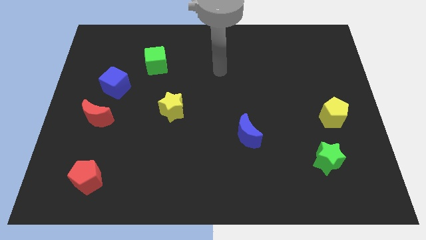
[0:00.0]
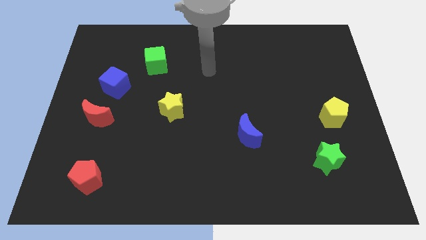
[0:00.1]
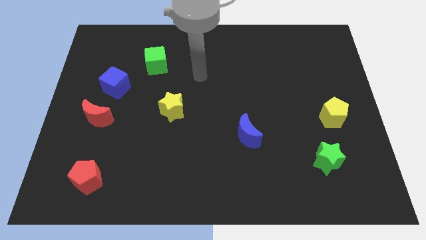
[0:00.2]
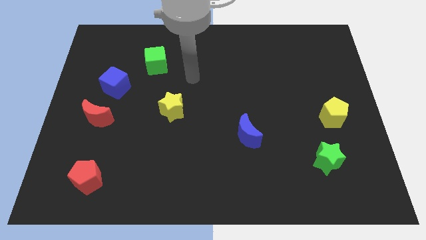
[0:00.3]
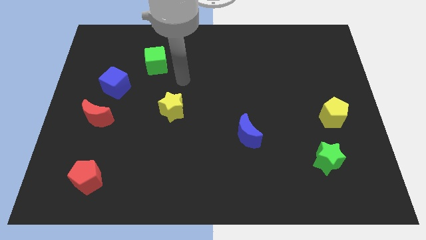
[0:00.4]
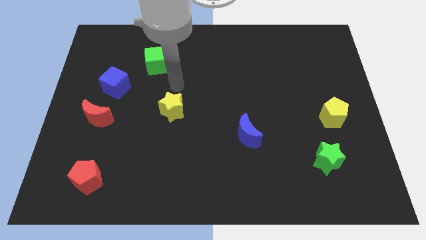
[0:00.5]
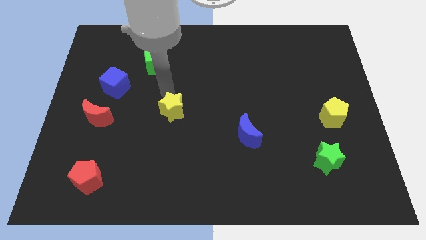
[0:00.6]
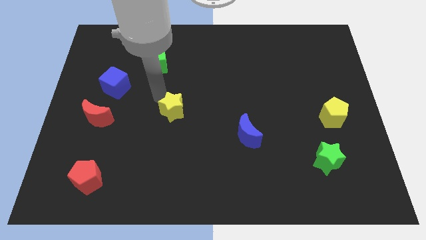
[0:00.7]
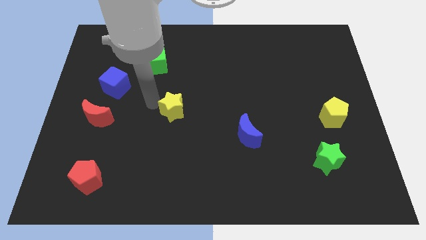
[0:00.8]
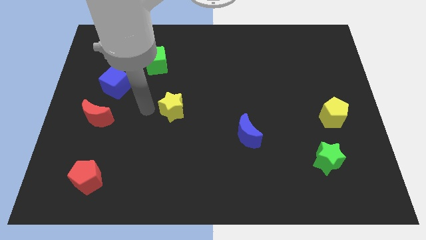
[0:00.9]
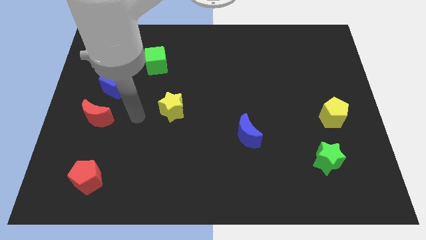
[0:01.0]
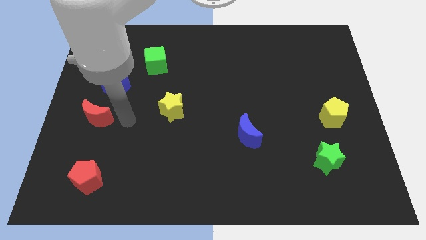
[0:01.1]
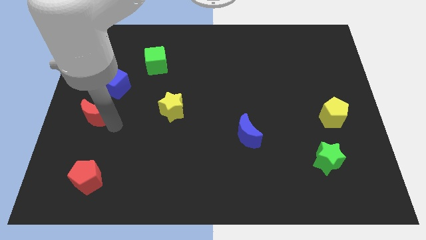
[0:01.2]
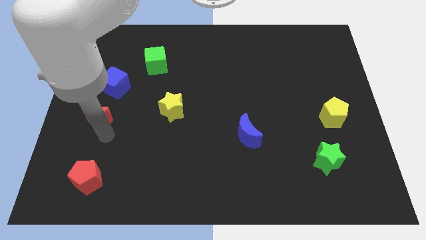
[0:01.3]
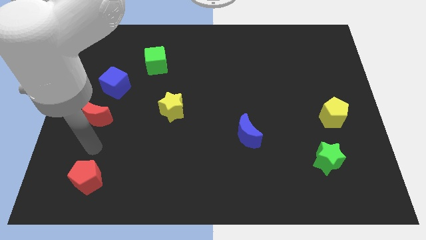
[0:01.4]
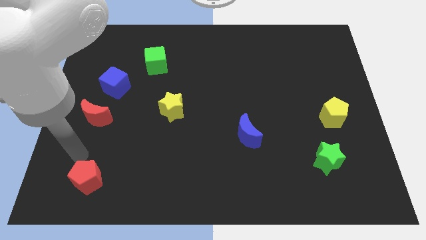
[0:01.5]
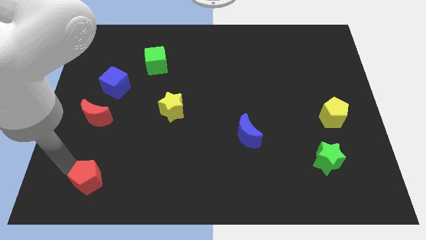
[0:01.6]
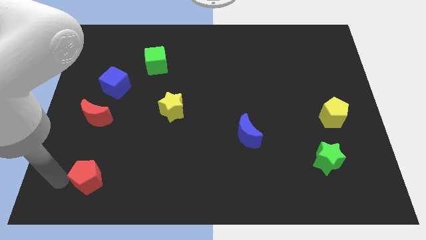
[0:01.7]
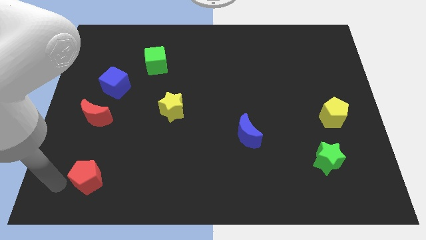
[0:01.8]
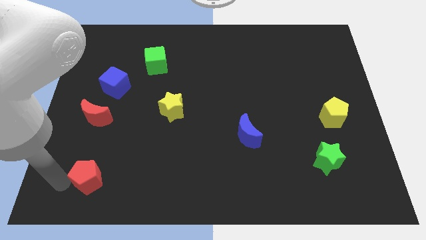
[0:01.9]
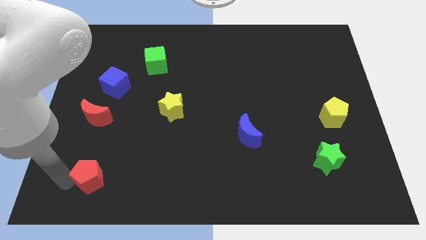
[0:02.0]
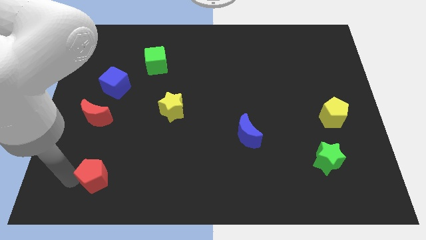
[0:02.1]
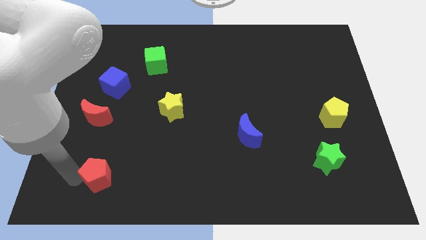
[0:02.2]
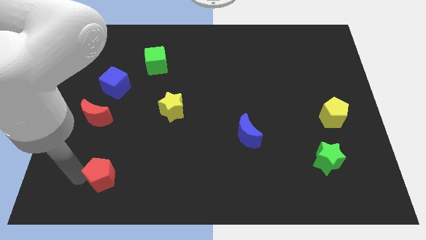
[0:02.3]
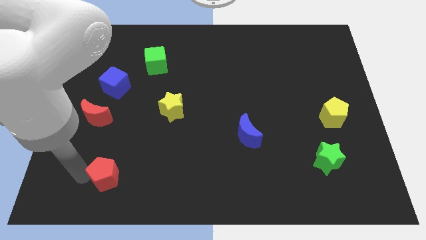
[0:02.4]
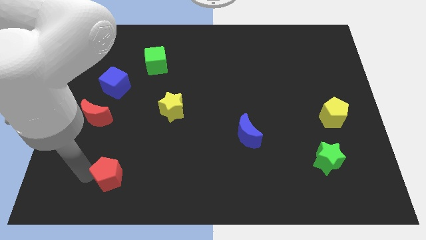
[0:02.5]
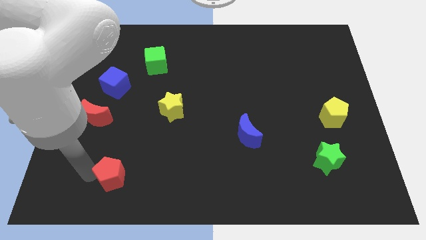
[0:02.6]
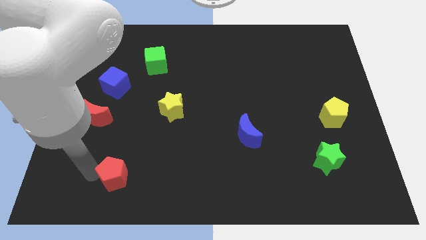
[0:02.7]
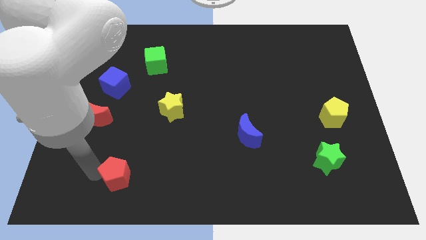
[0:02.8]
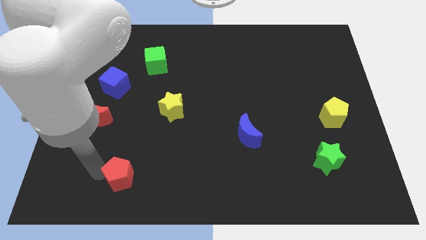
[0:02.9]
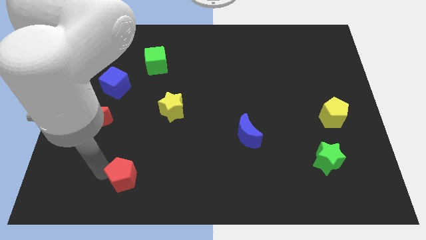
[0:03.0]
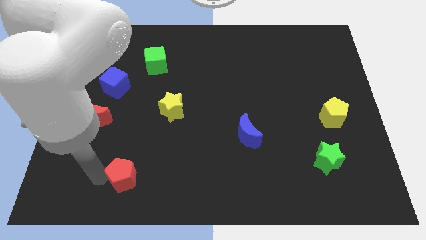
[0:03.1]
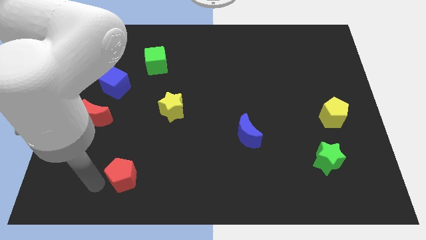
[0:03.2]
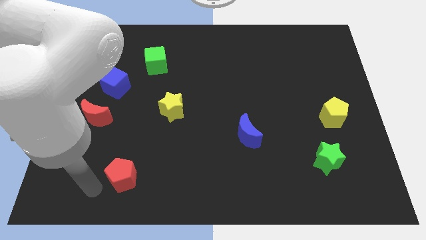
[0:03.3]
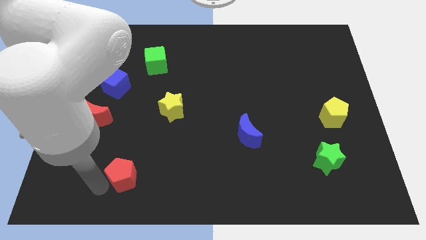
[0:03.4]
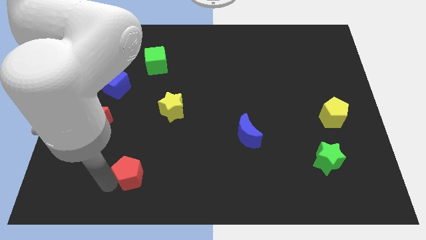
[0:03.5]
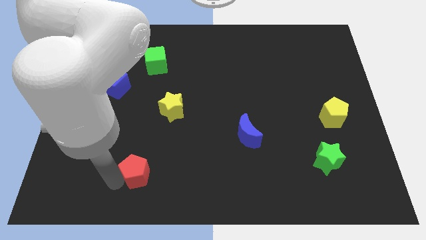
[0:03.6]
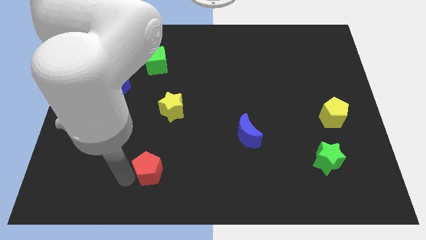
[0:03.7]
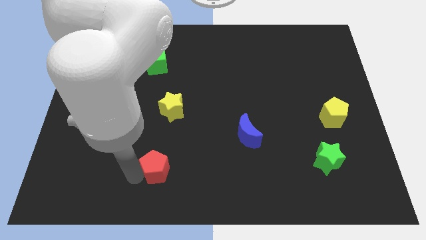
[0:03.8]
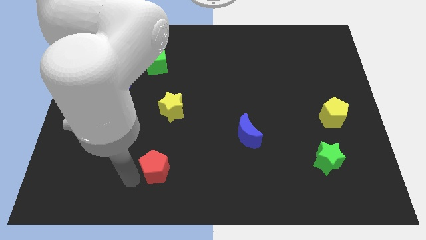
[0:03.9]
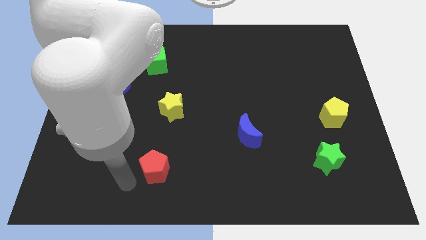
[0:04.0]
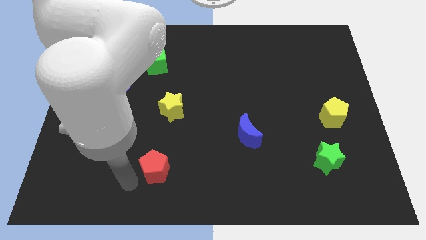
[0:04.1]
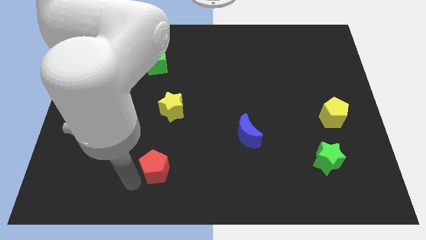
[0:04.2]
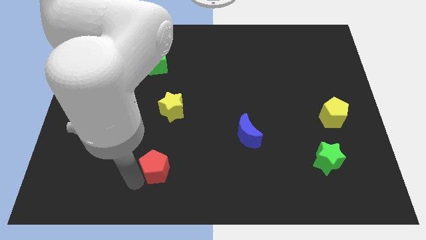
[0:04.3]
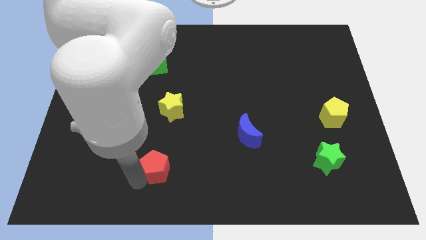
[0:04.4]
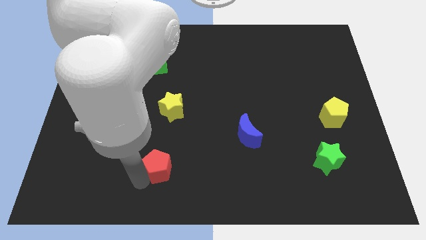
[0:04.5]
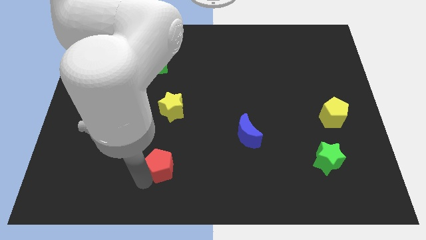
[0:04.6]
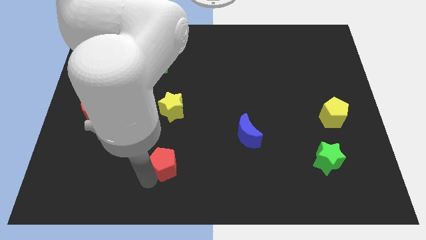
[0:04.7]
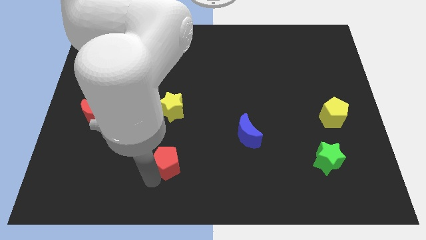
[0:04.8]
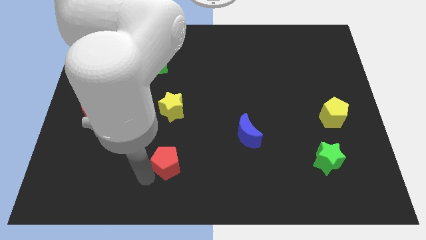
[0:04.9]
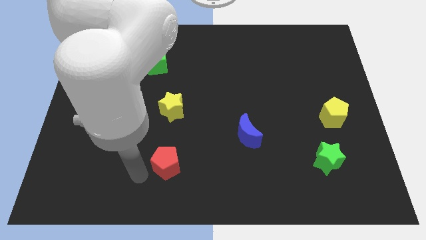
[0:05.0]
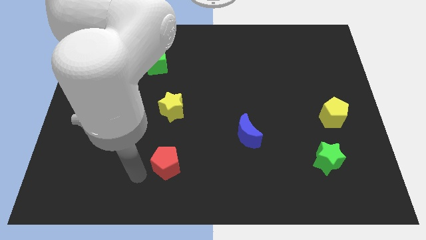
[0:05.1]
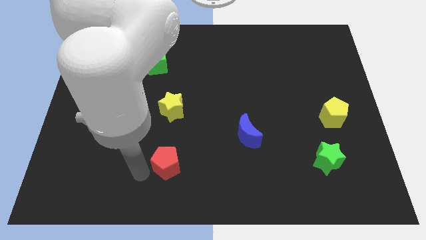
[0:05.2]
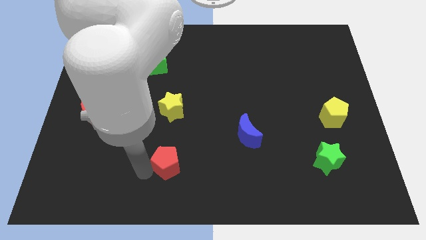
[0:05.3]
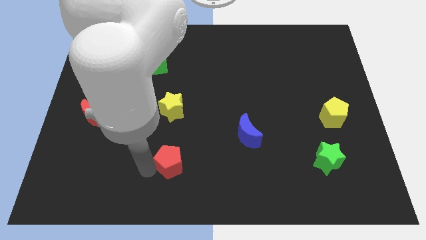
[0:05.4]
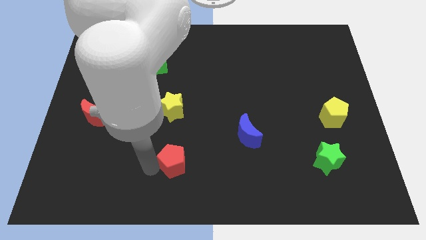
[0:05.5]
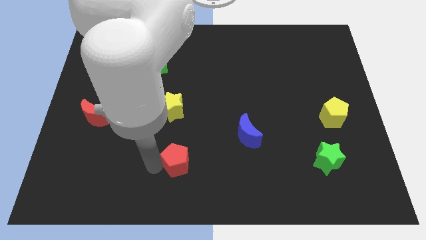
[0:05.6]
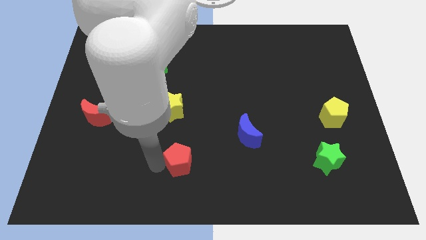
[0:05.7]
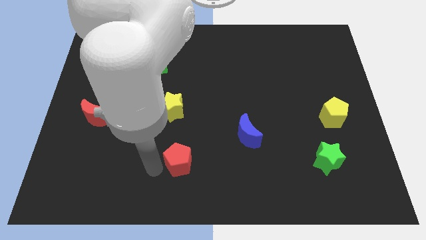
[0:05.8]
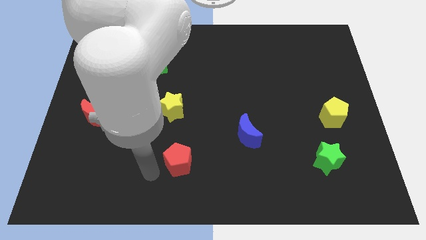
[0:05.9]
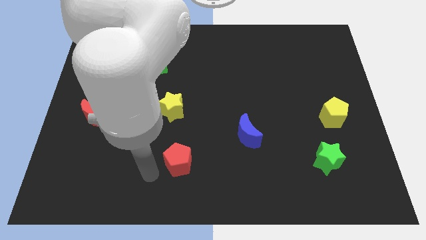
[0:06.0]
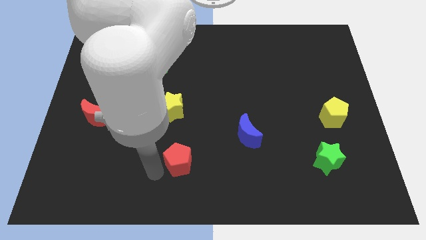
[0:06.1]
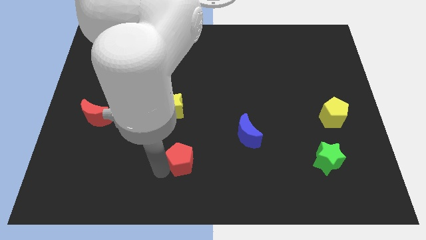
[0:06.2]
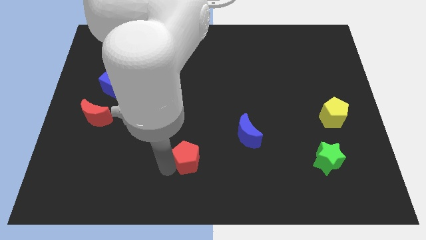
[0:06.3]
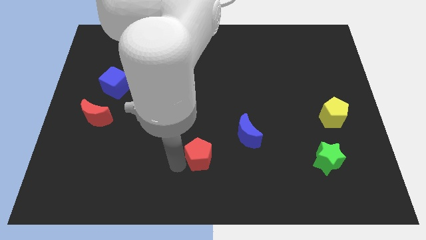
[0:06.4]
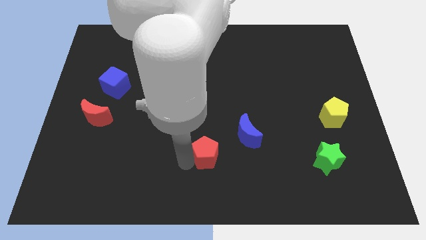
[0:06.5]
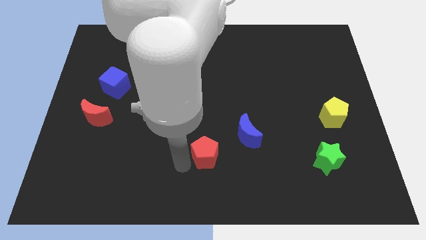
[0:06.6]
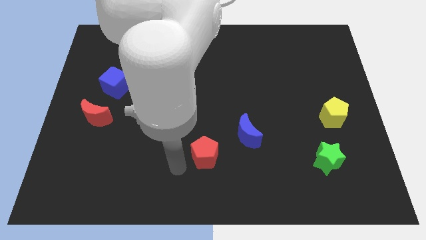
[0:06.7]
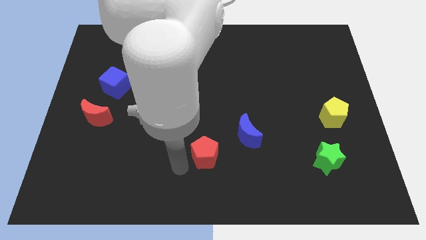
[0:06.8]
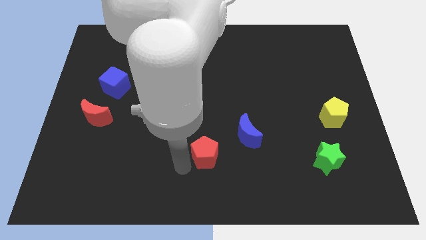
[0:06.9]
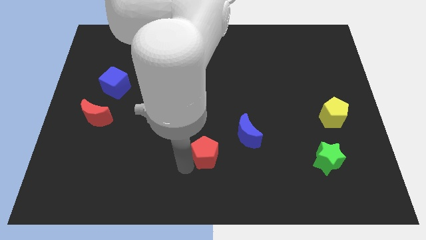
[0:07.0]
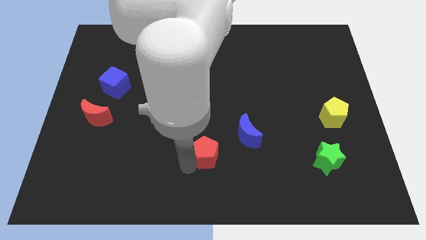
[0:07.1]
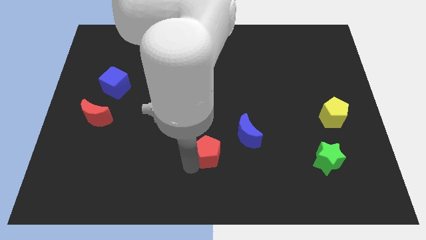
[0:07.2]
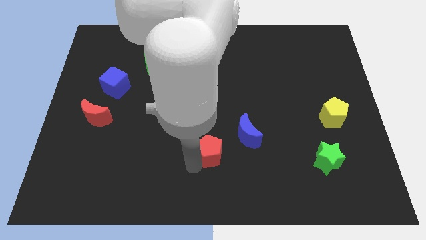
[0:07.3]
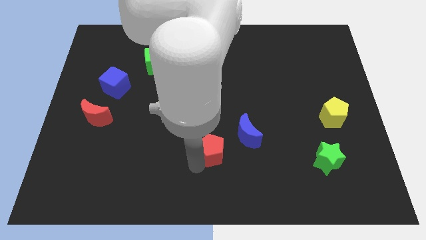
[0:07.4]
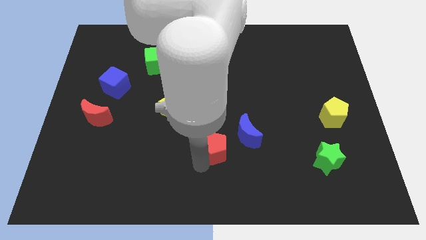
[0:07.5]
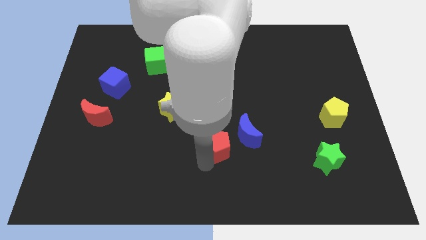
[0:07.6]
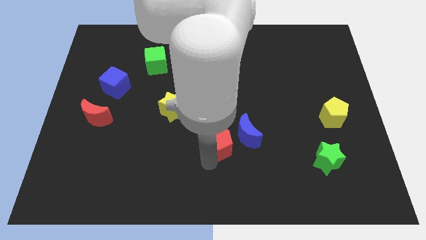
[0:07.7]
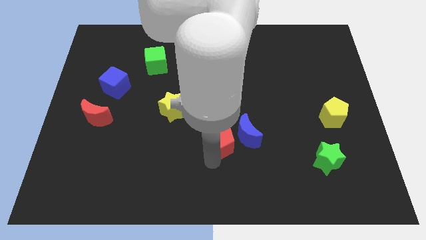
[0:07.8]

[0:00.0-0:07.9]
push the red pentagon towards the blue moon
